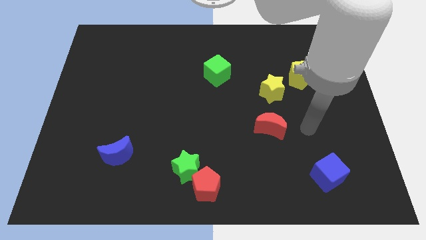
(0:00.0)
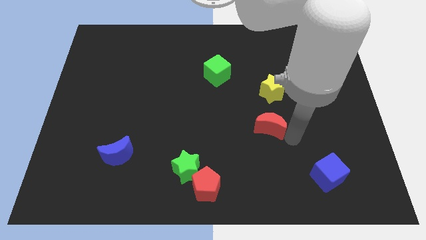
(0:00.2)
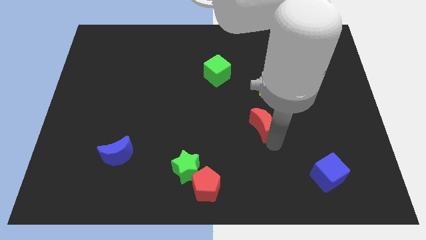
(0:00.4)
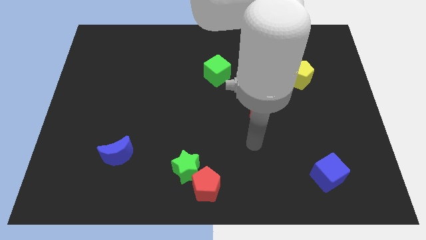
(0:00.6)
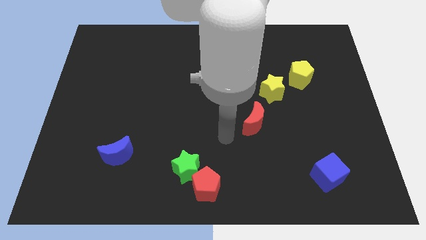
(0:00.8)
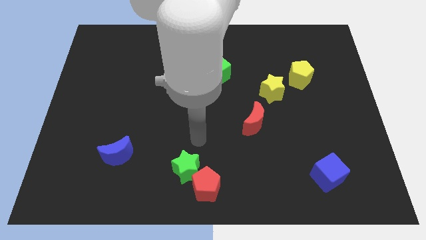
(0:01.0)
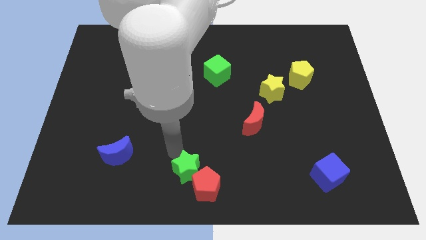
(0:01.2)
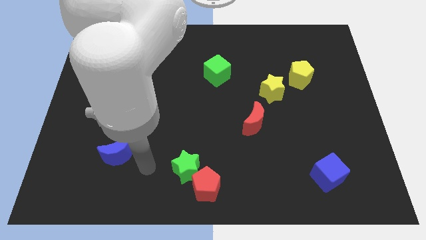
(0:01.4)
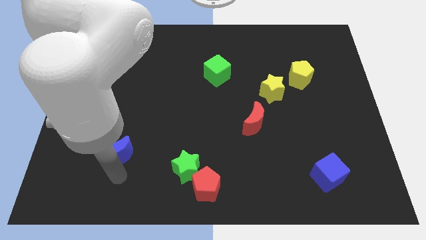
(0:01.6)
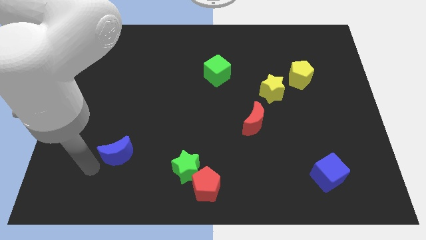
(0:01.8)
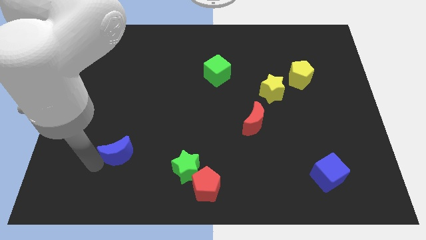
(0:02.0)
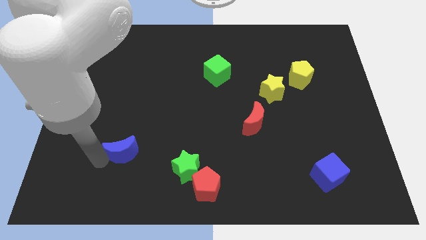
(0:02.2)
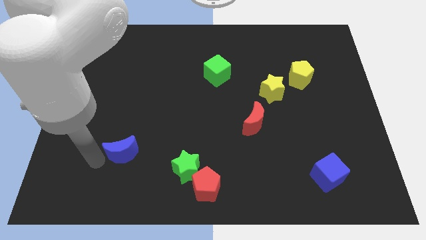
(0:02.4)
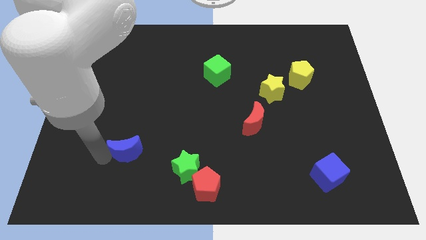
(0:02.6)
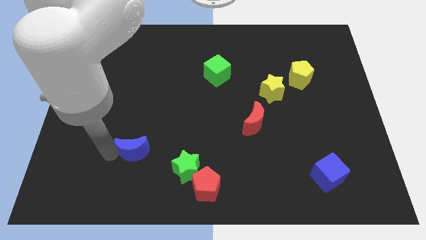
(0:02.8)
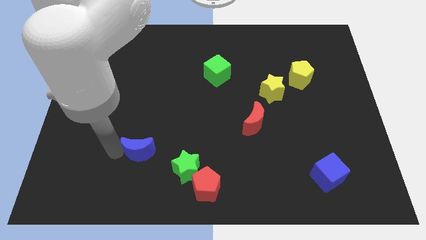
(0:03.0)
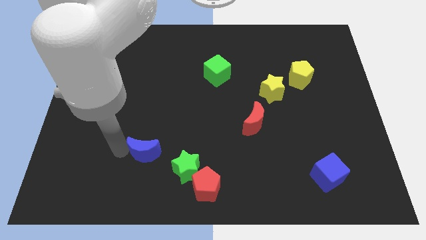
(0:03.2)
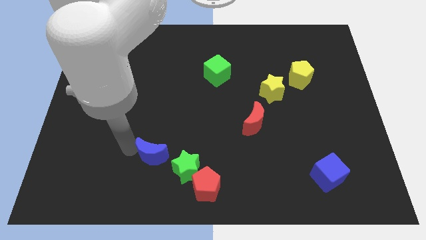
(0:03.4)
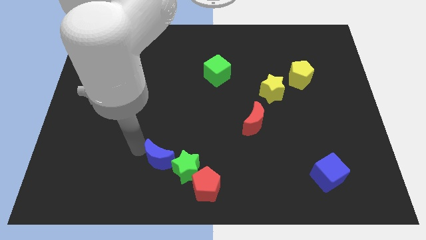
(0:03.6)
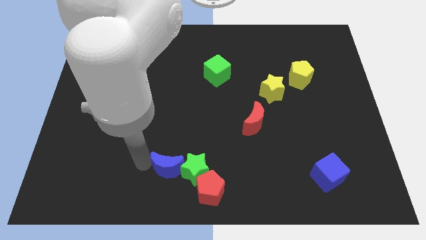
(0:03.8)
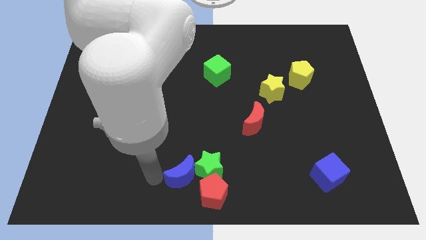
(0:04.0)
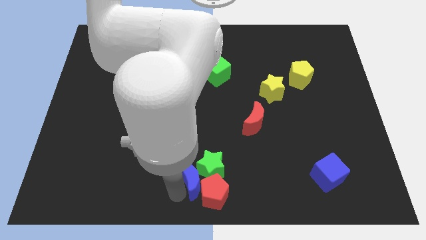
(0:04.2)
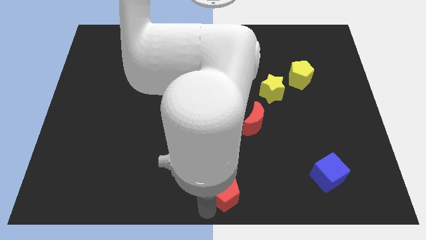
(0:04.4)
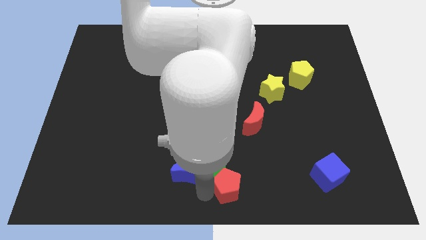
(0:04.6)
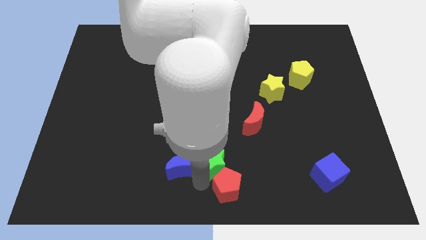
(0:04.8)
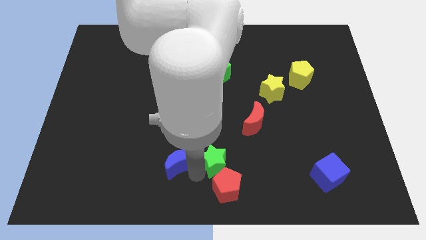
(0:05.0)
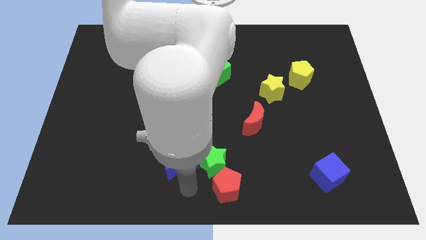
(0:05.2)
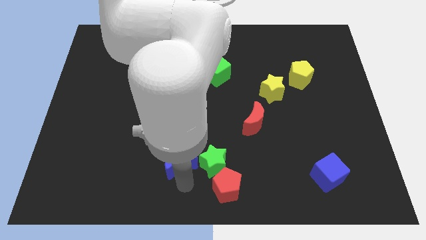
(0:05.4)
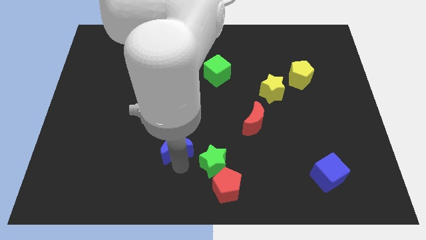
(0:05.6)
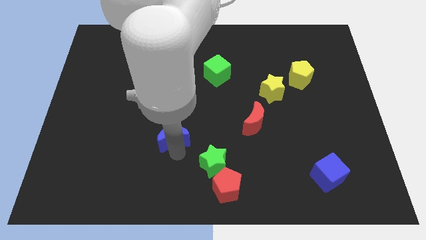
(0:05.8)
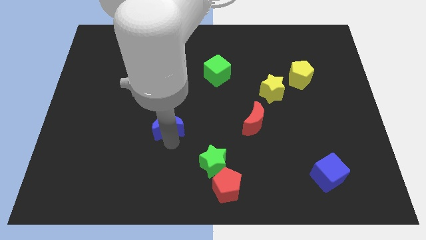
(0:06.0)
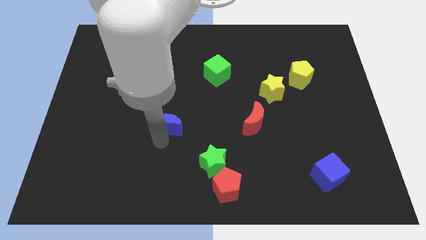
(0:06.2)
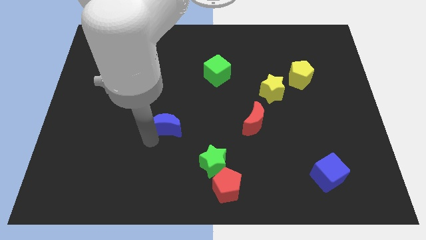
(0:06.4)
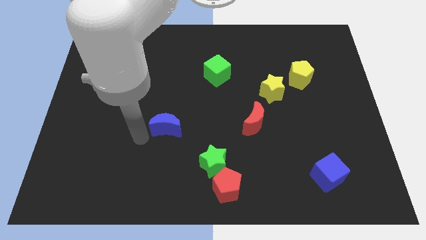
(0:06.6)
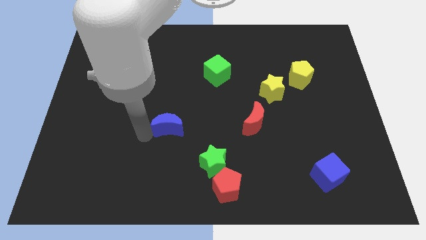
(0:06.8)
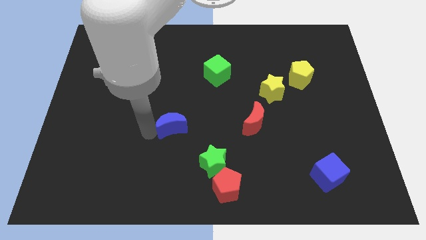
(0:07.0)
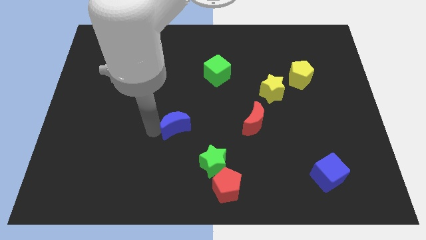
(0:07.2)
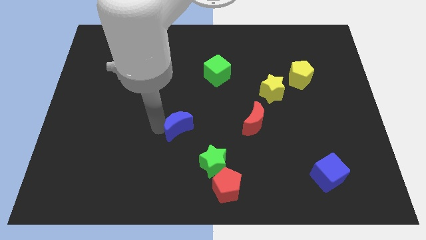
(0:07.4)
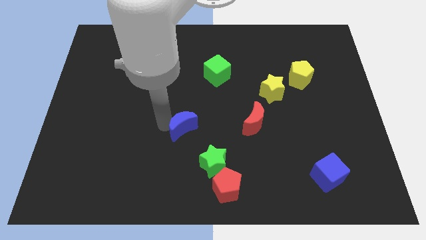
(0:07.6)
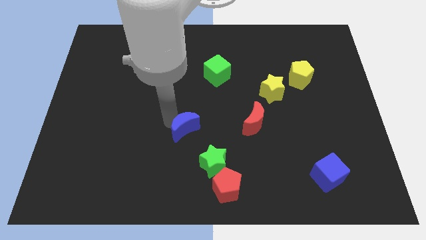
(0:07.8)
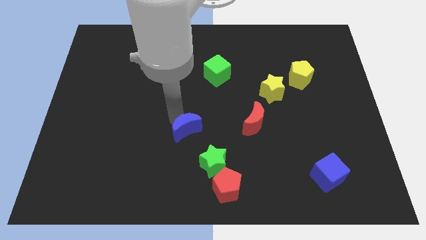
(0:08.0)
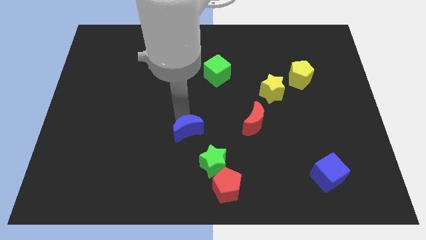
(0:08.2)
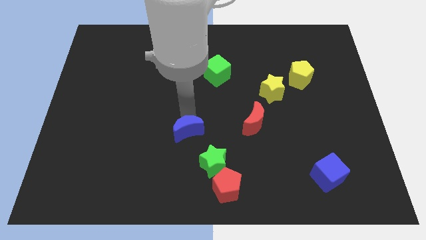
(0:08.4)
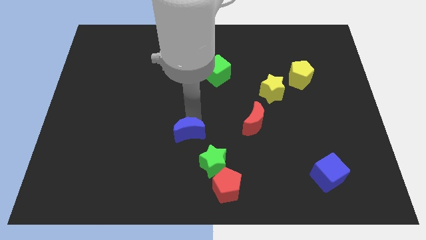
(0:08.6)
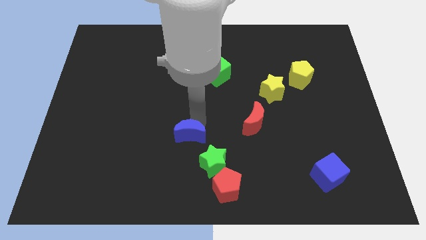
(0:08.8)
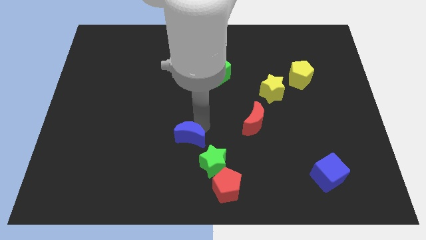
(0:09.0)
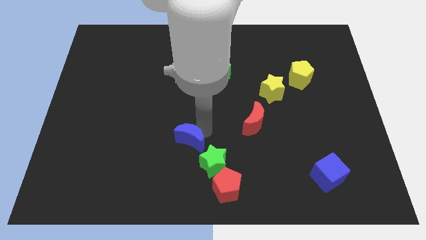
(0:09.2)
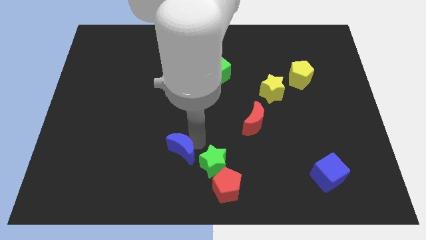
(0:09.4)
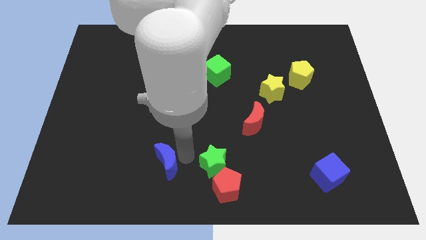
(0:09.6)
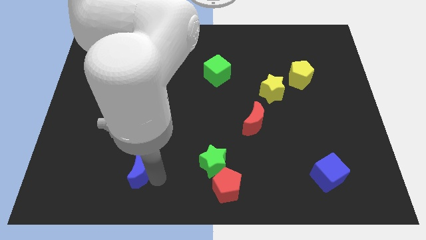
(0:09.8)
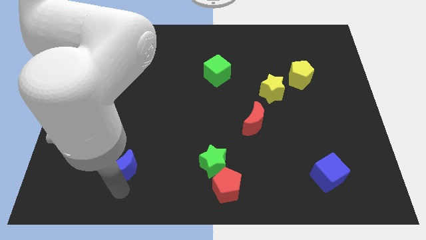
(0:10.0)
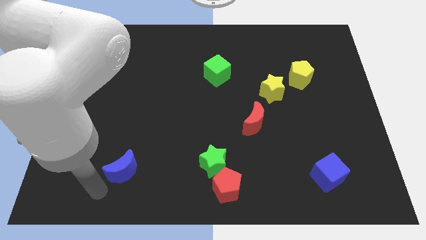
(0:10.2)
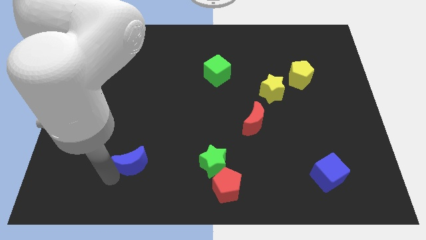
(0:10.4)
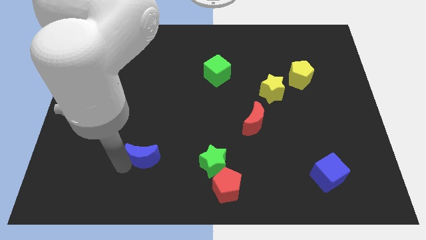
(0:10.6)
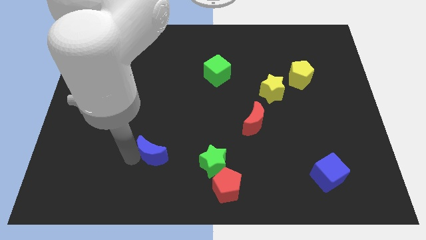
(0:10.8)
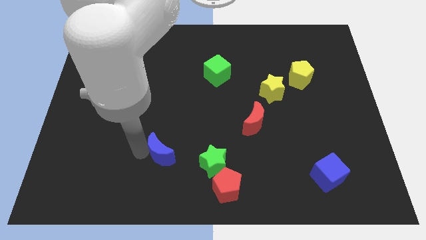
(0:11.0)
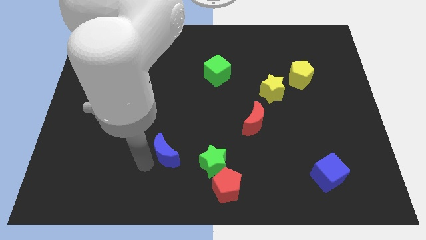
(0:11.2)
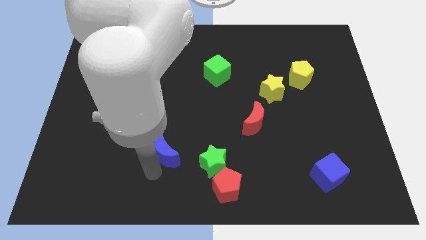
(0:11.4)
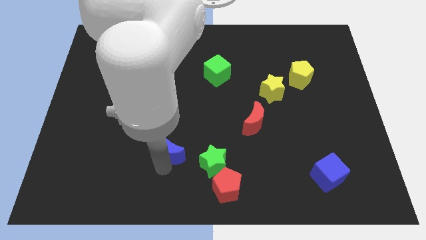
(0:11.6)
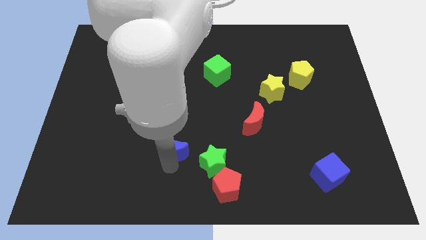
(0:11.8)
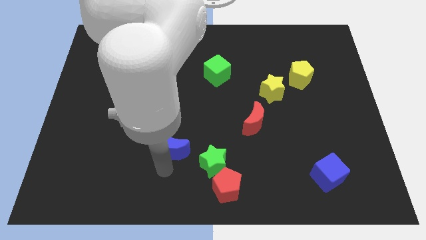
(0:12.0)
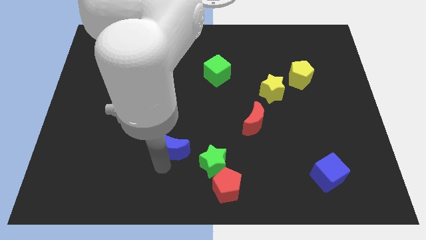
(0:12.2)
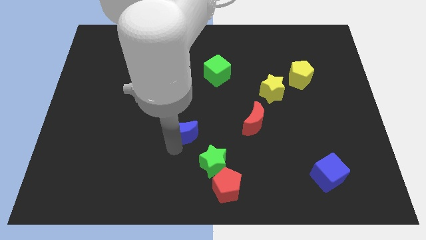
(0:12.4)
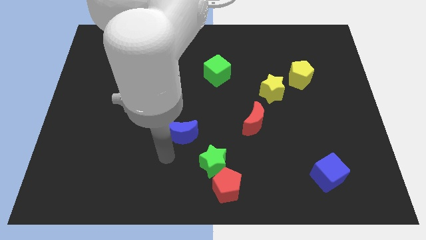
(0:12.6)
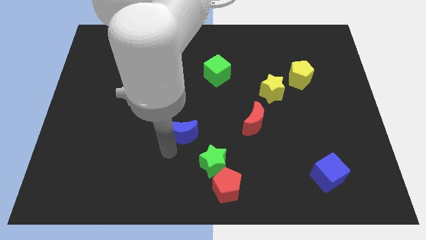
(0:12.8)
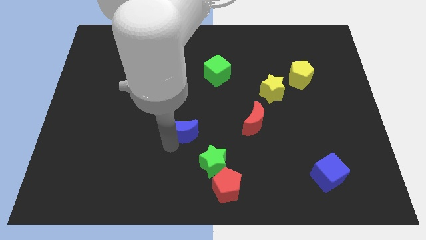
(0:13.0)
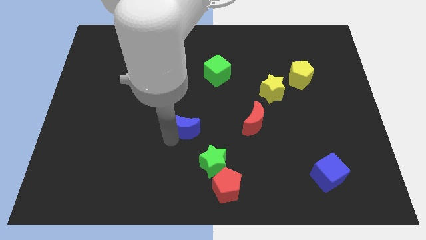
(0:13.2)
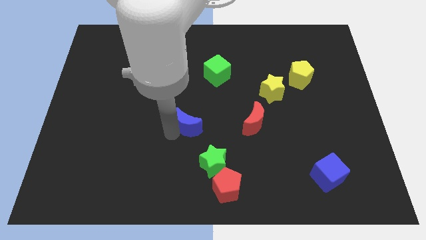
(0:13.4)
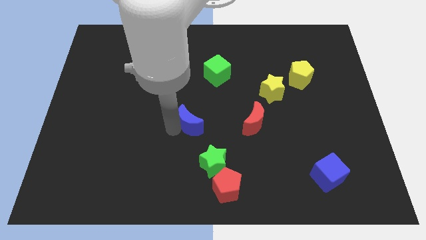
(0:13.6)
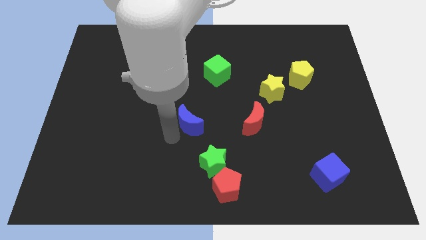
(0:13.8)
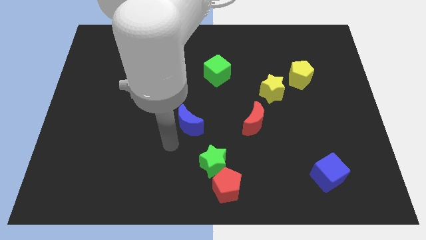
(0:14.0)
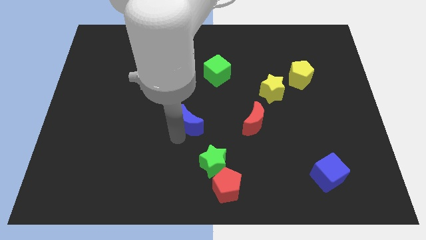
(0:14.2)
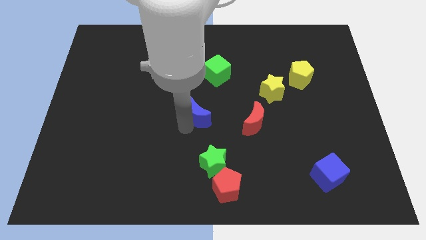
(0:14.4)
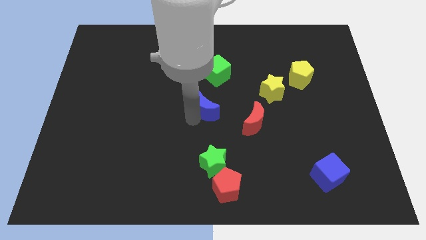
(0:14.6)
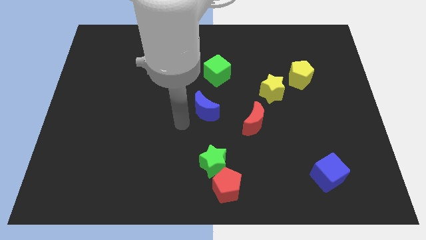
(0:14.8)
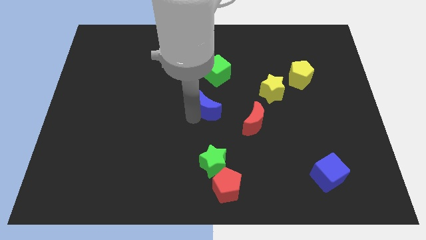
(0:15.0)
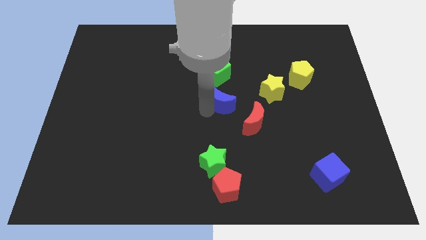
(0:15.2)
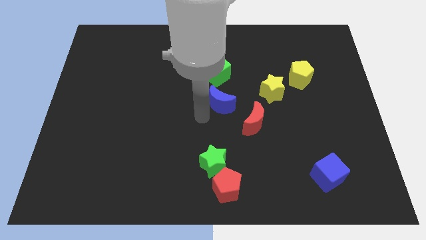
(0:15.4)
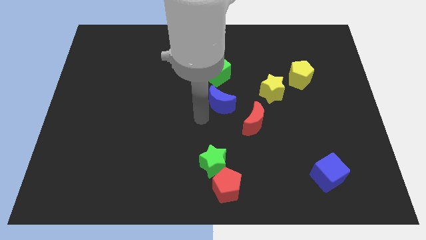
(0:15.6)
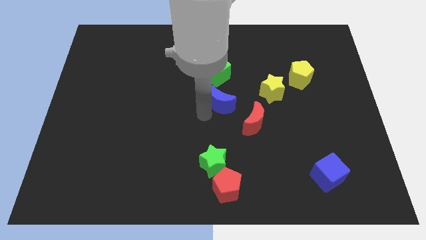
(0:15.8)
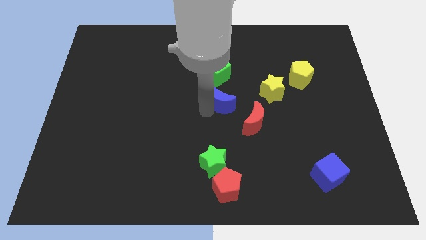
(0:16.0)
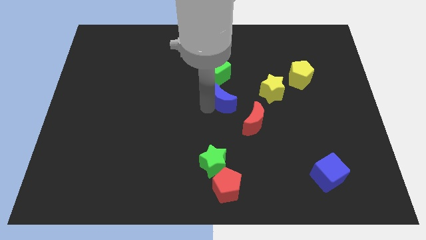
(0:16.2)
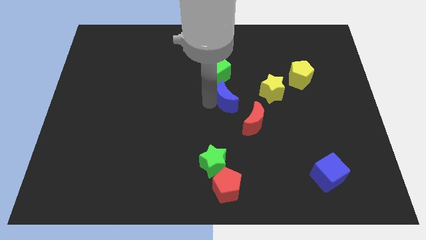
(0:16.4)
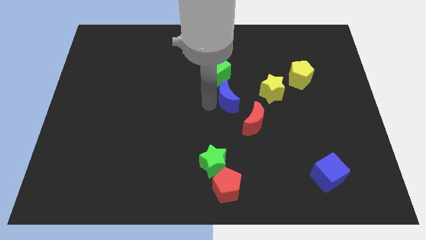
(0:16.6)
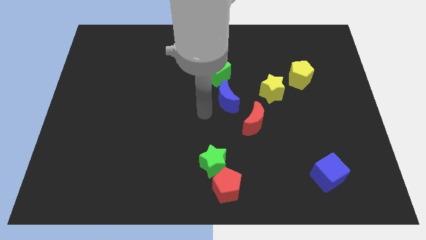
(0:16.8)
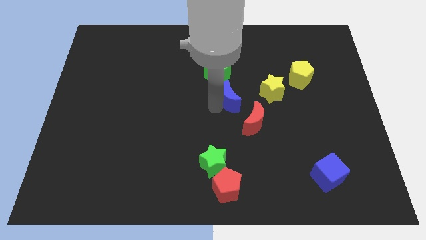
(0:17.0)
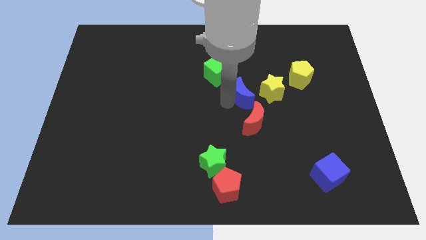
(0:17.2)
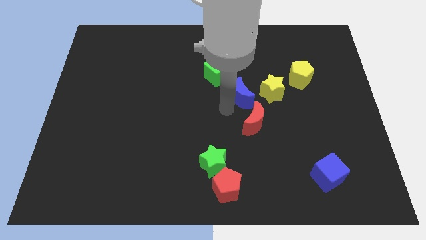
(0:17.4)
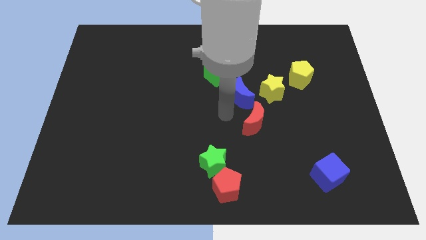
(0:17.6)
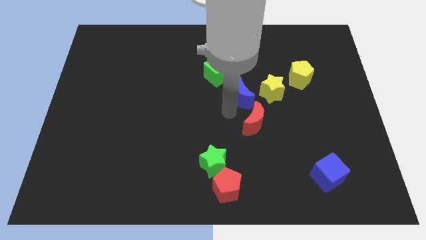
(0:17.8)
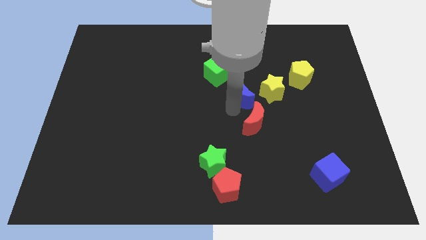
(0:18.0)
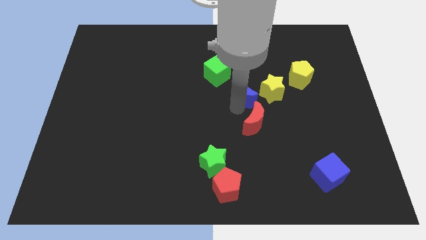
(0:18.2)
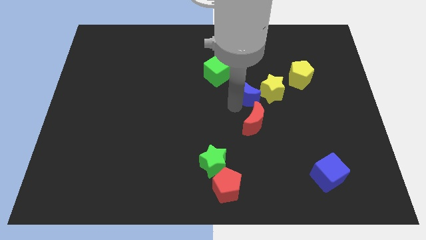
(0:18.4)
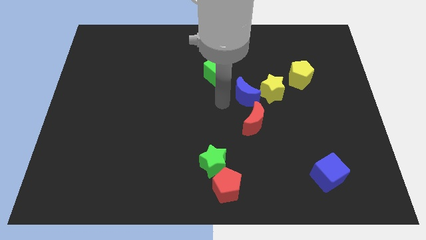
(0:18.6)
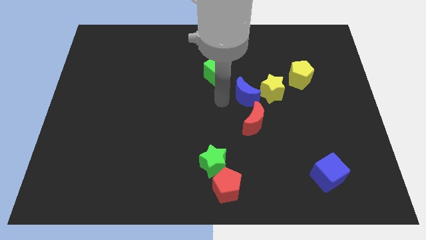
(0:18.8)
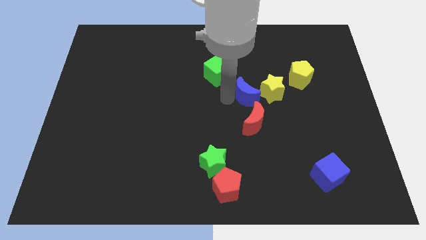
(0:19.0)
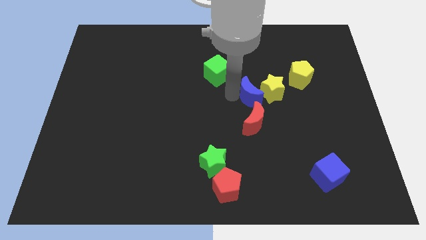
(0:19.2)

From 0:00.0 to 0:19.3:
slide the blue moon next to the yellow star
